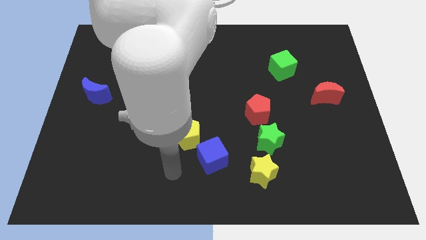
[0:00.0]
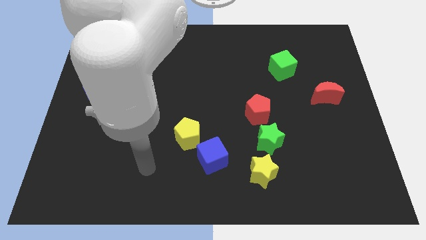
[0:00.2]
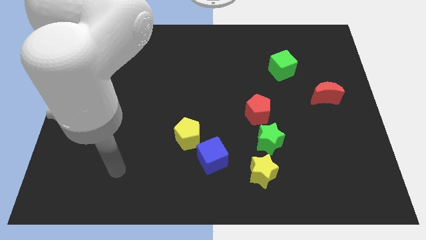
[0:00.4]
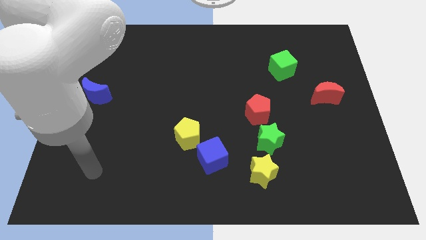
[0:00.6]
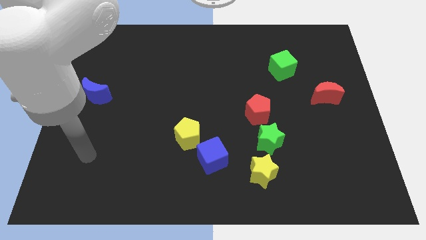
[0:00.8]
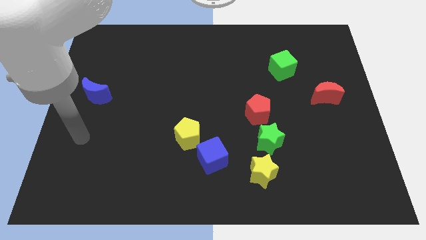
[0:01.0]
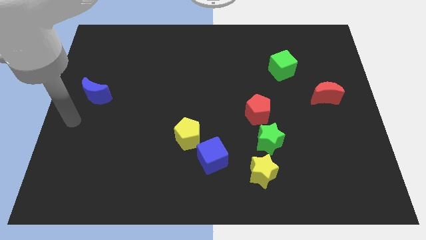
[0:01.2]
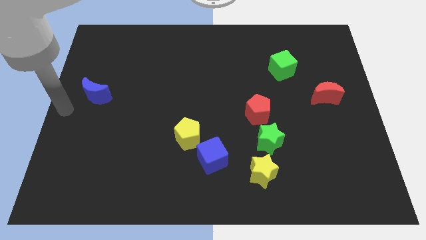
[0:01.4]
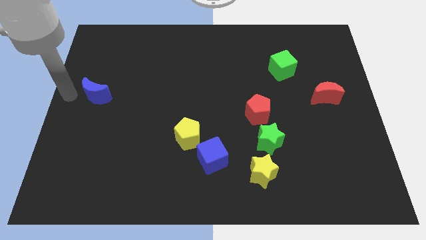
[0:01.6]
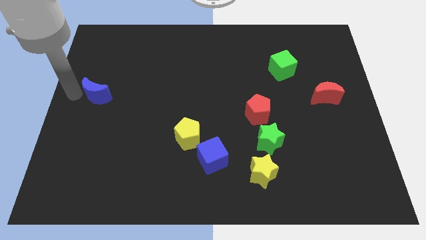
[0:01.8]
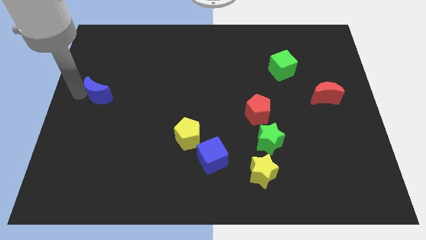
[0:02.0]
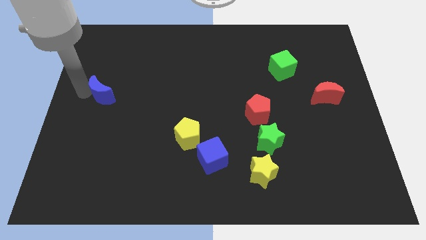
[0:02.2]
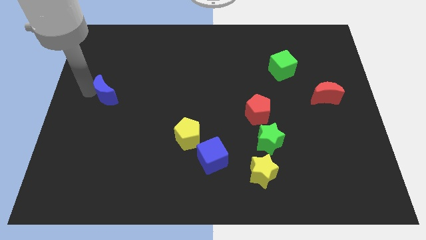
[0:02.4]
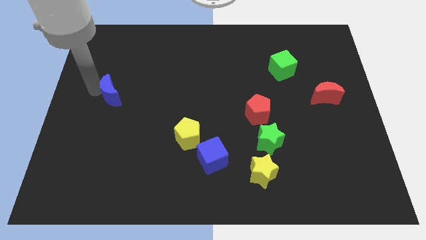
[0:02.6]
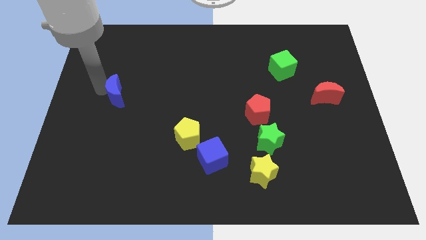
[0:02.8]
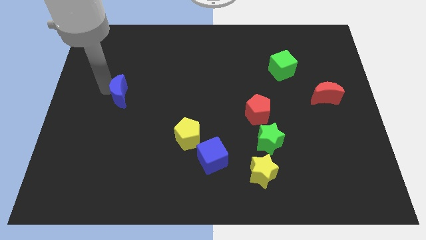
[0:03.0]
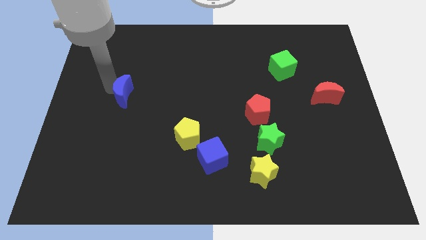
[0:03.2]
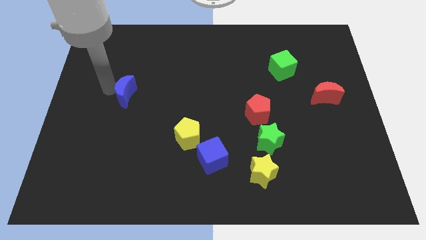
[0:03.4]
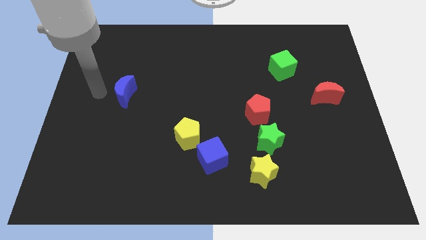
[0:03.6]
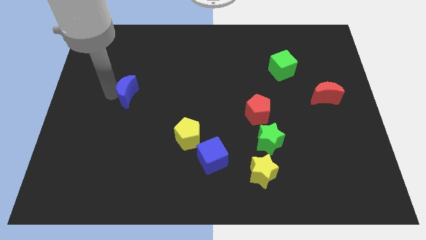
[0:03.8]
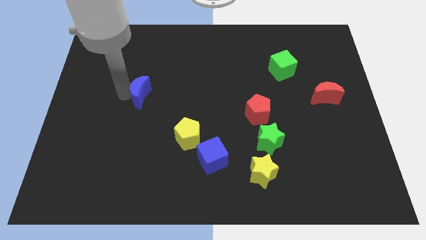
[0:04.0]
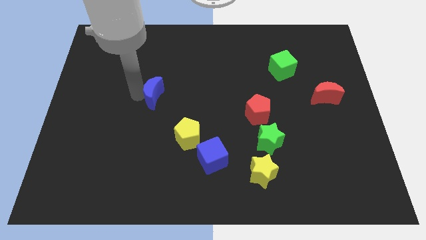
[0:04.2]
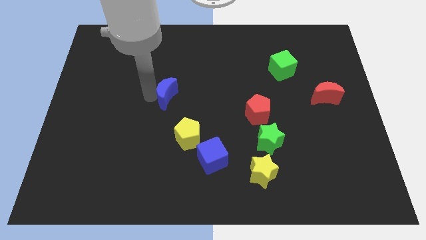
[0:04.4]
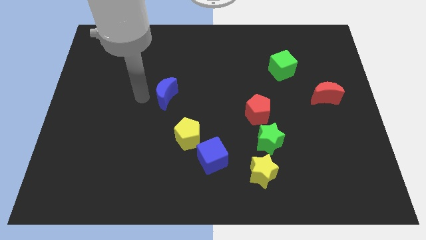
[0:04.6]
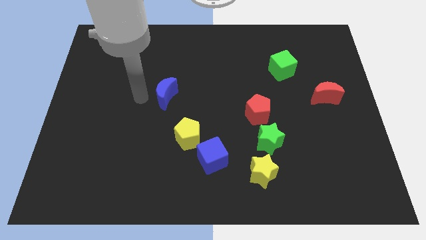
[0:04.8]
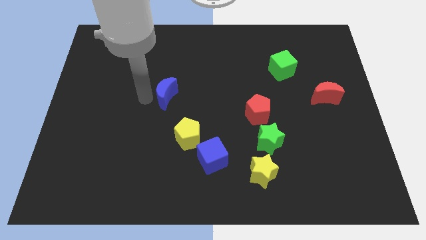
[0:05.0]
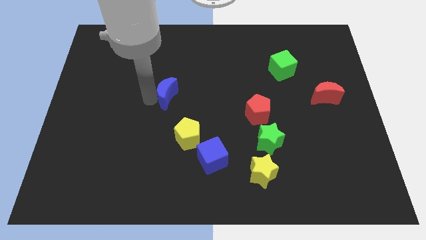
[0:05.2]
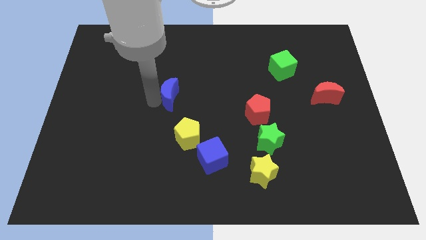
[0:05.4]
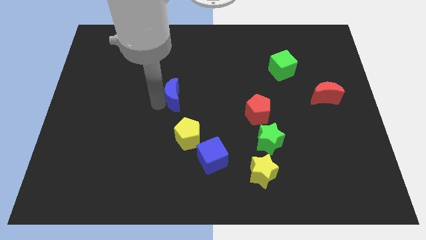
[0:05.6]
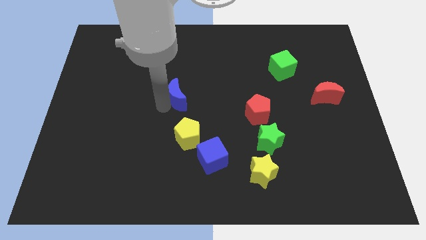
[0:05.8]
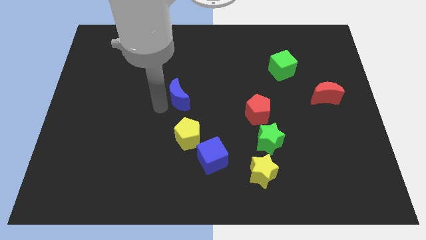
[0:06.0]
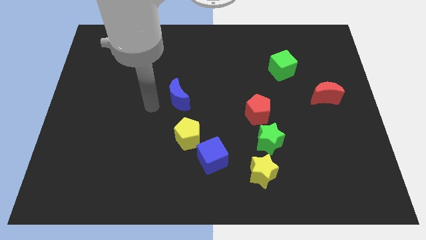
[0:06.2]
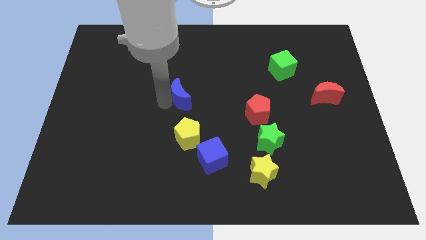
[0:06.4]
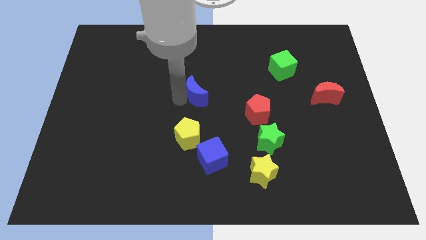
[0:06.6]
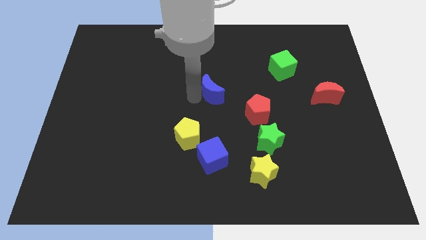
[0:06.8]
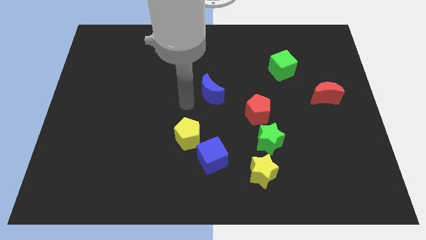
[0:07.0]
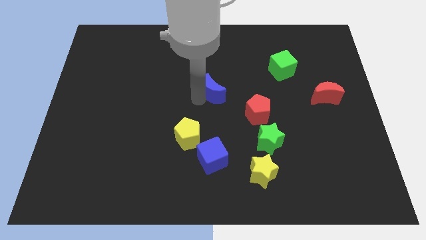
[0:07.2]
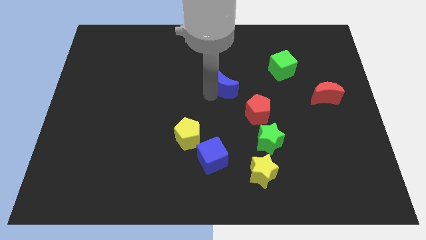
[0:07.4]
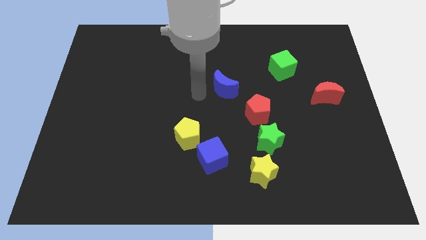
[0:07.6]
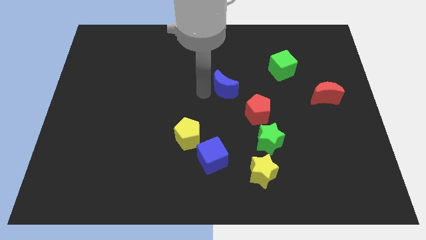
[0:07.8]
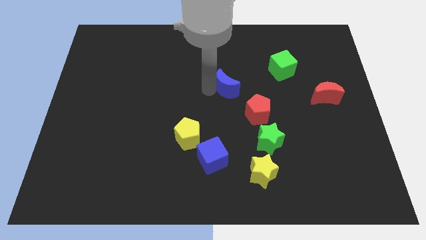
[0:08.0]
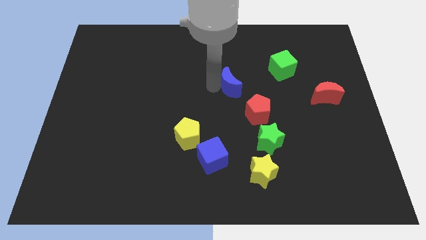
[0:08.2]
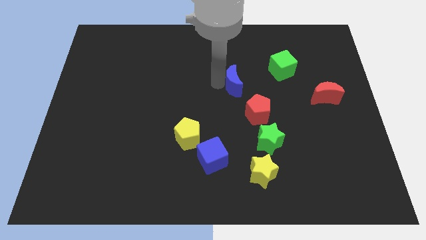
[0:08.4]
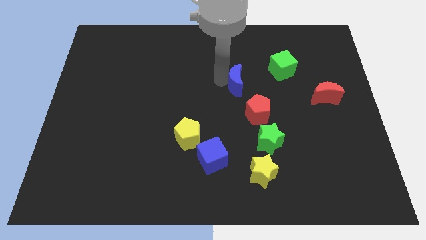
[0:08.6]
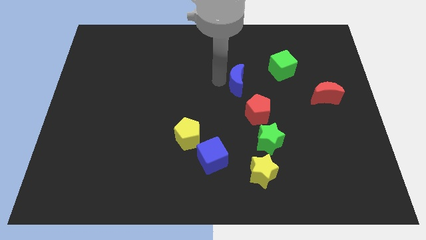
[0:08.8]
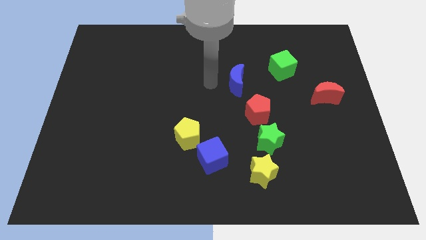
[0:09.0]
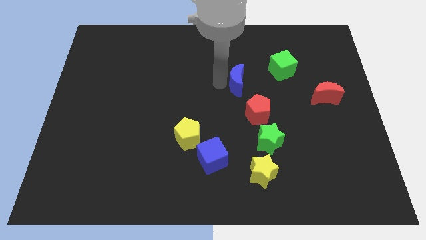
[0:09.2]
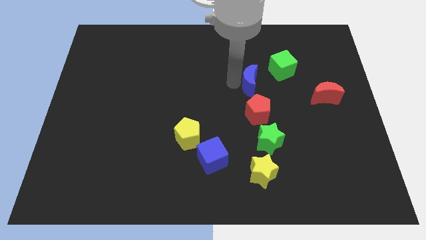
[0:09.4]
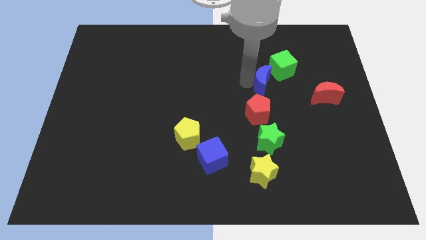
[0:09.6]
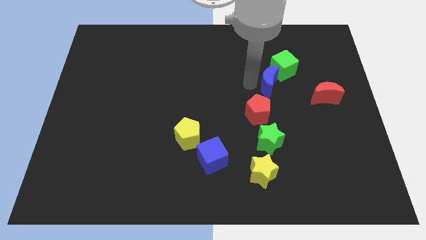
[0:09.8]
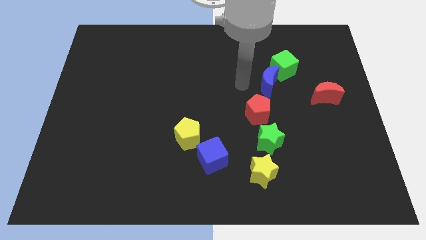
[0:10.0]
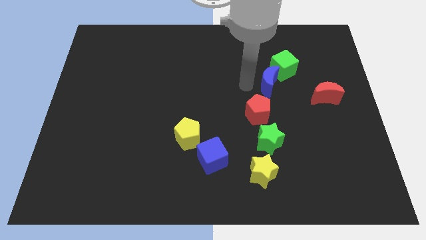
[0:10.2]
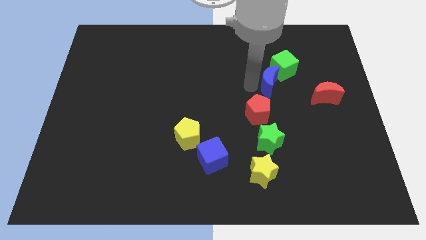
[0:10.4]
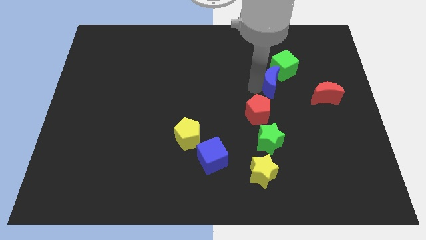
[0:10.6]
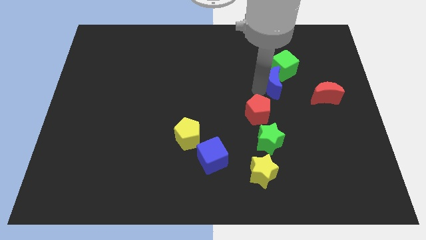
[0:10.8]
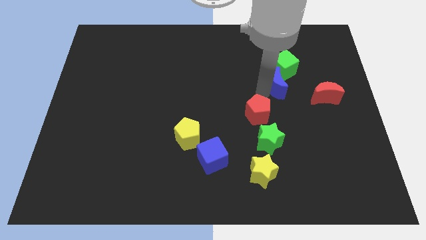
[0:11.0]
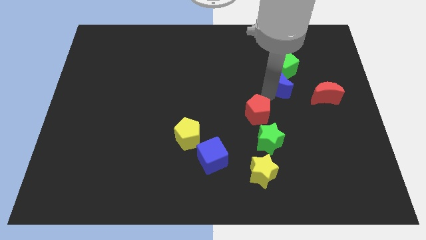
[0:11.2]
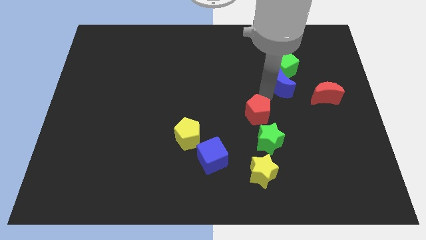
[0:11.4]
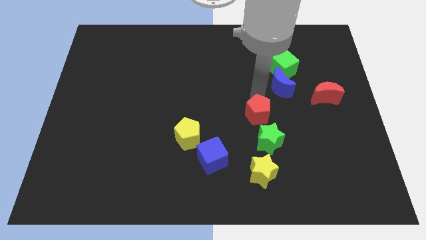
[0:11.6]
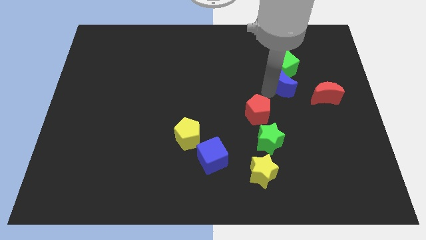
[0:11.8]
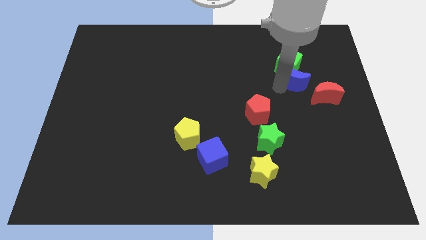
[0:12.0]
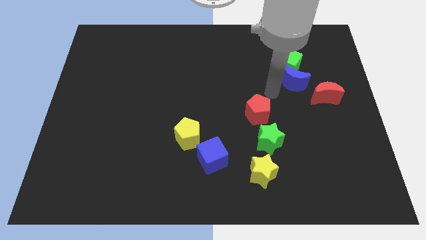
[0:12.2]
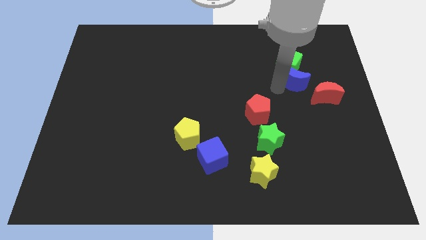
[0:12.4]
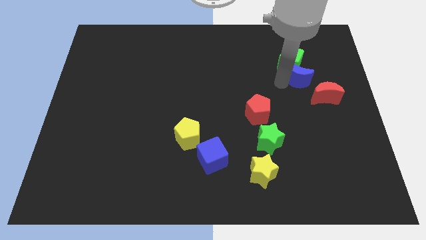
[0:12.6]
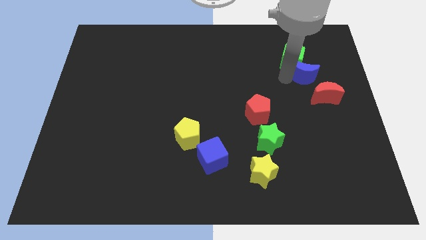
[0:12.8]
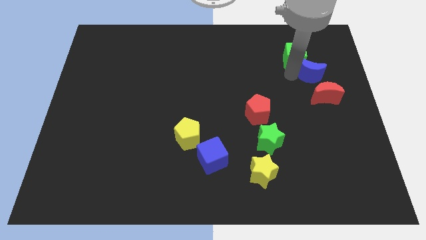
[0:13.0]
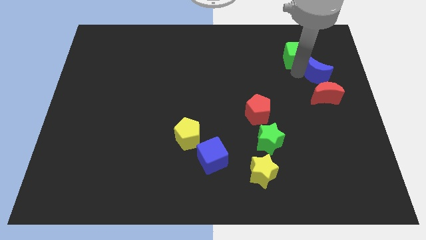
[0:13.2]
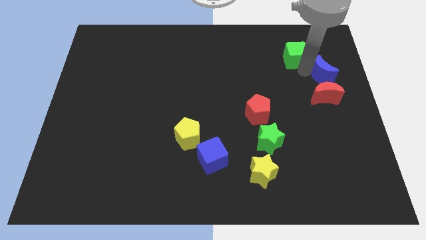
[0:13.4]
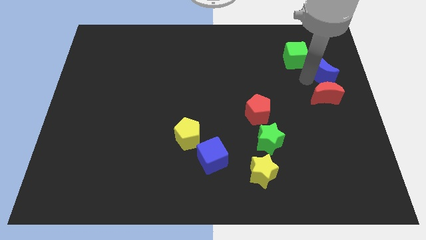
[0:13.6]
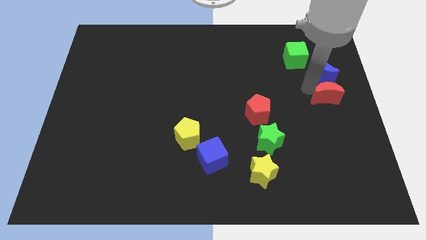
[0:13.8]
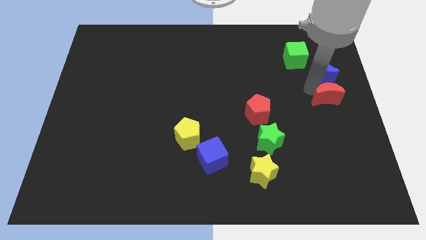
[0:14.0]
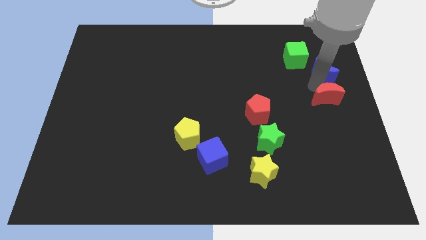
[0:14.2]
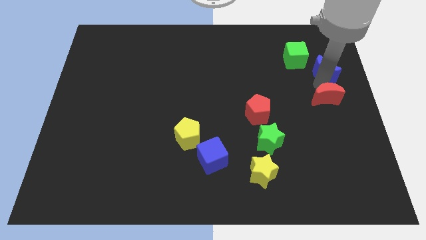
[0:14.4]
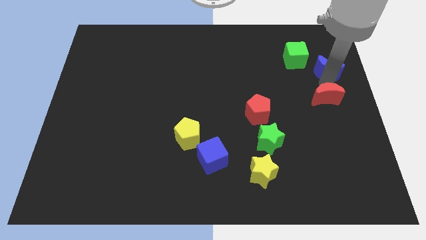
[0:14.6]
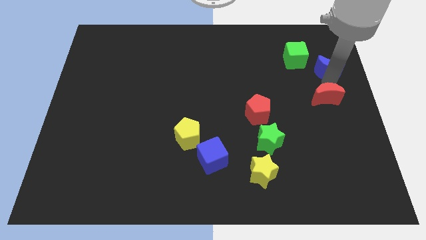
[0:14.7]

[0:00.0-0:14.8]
push the blue moon to the right side of the green cube
